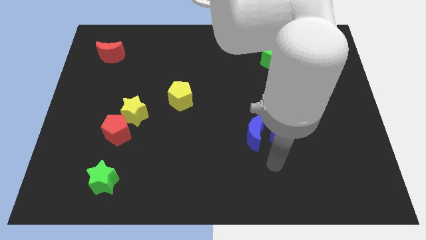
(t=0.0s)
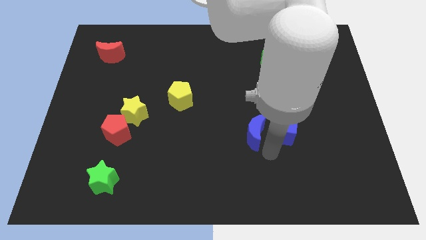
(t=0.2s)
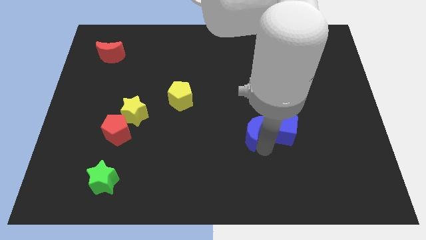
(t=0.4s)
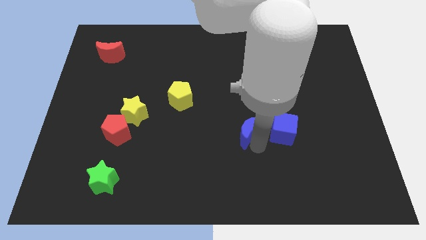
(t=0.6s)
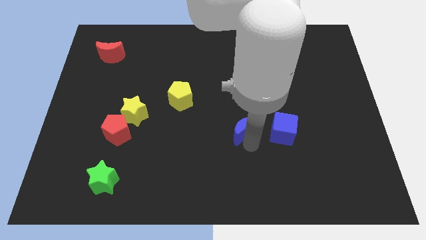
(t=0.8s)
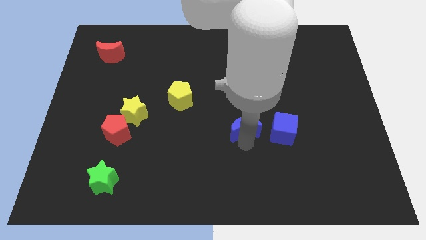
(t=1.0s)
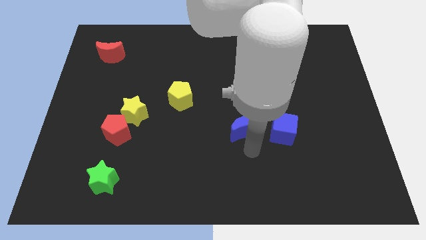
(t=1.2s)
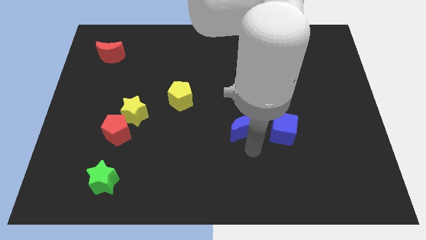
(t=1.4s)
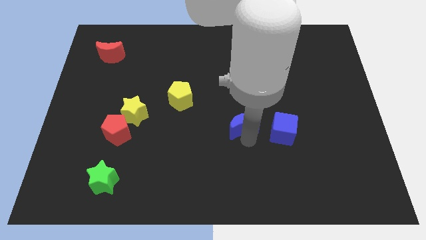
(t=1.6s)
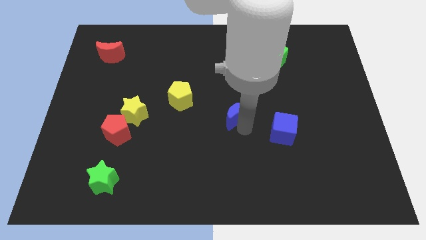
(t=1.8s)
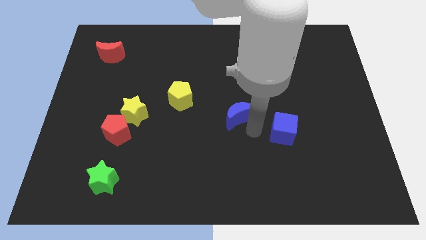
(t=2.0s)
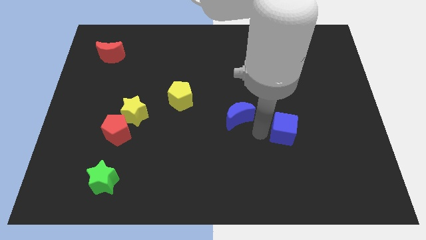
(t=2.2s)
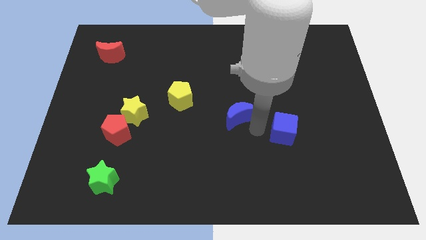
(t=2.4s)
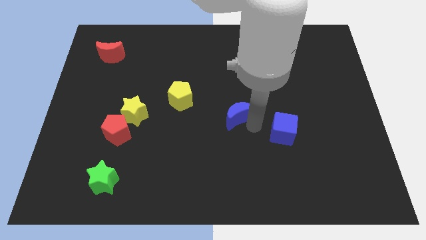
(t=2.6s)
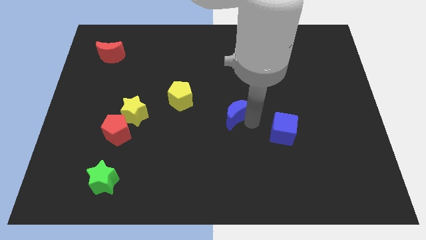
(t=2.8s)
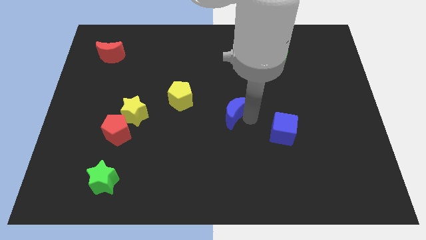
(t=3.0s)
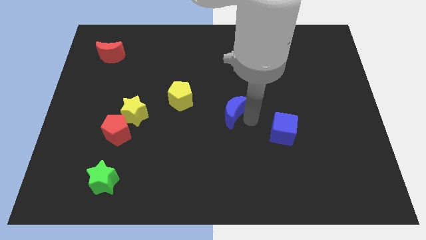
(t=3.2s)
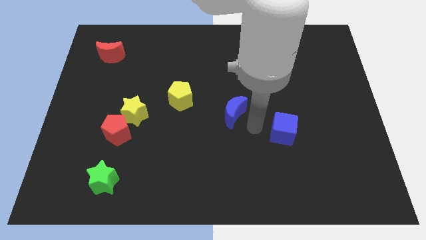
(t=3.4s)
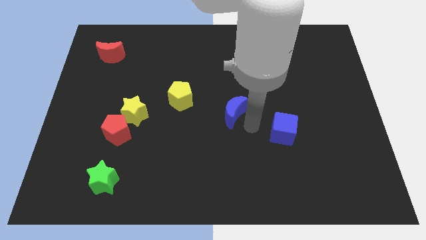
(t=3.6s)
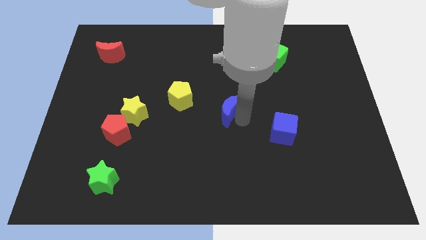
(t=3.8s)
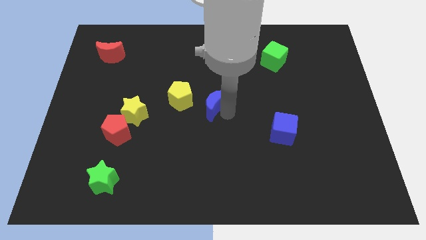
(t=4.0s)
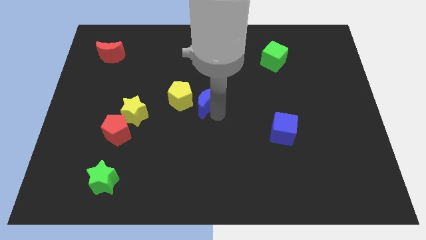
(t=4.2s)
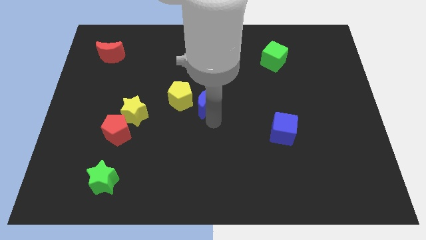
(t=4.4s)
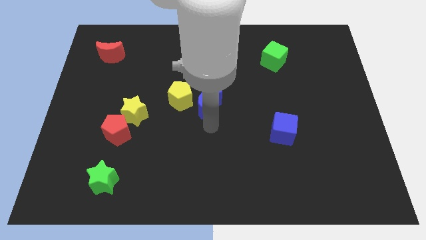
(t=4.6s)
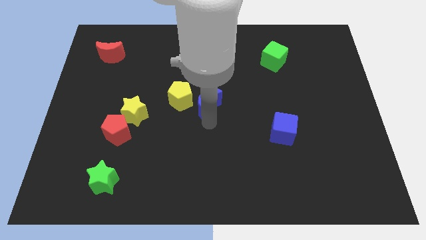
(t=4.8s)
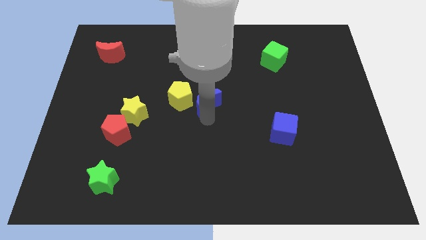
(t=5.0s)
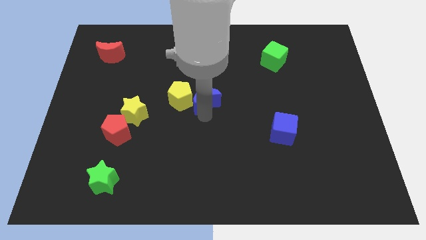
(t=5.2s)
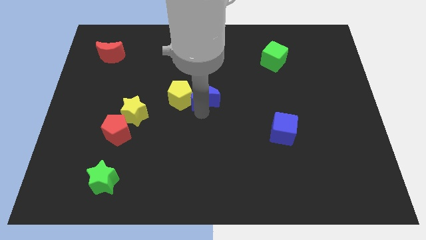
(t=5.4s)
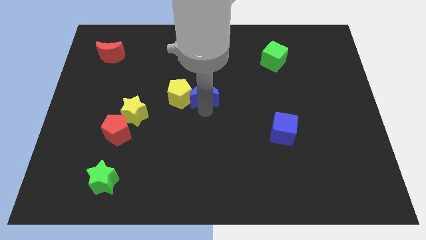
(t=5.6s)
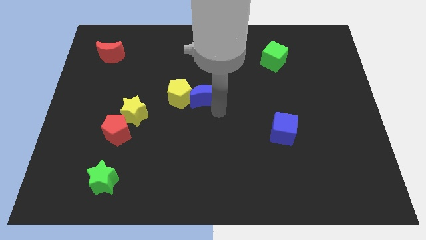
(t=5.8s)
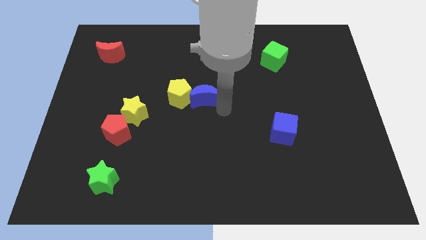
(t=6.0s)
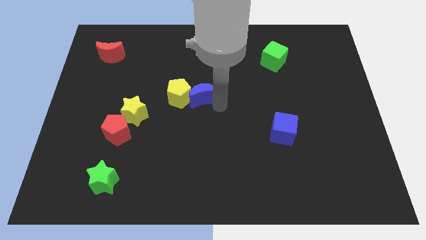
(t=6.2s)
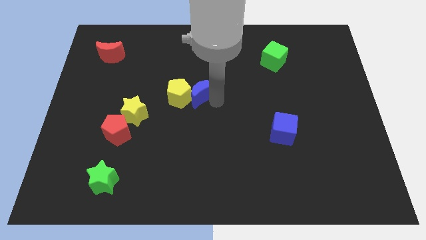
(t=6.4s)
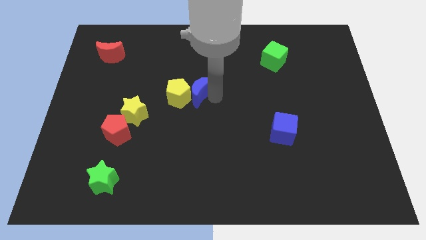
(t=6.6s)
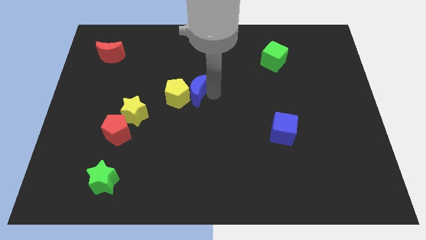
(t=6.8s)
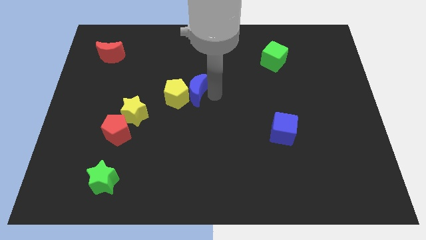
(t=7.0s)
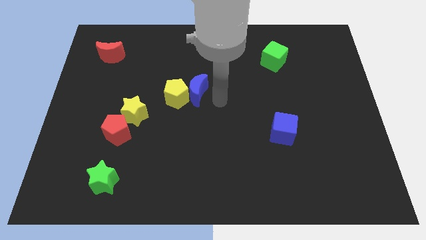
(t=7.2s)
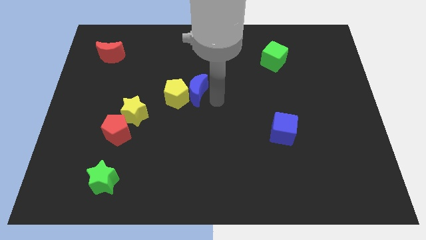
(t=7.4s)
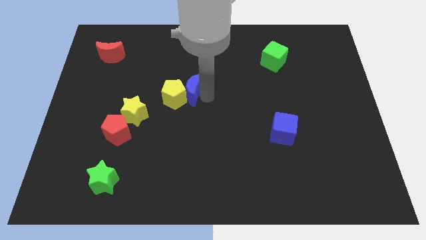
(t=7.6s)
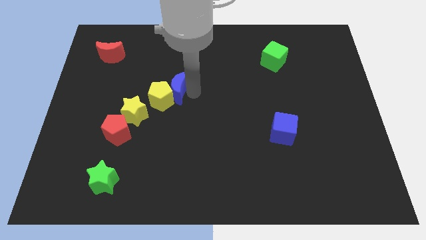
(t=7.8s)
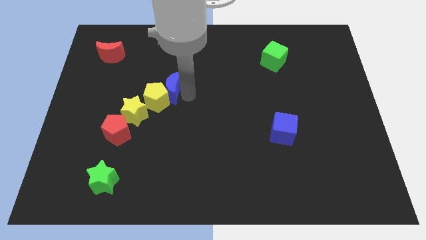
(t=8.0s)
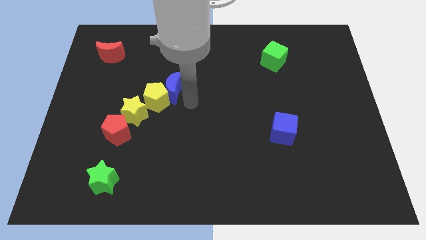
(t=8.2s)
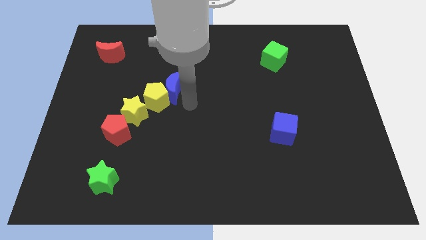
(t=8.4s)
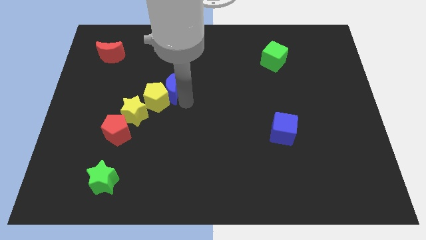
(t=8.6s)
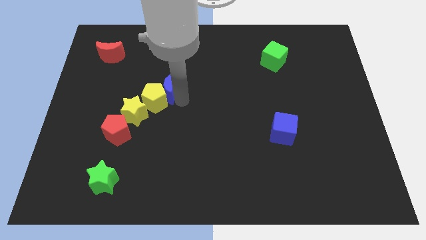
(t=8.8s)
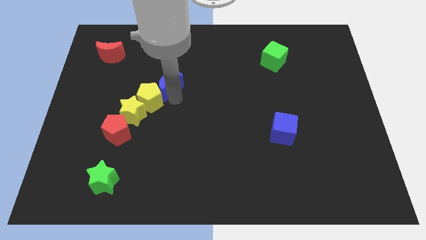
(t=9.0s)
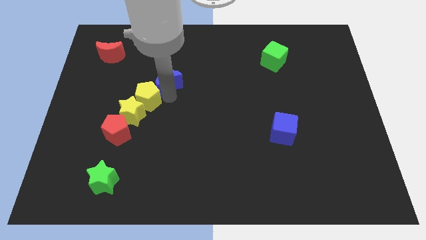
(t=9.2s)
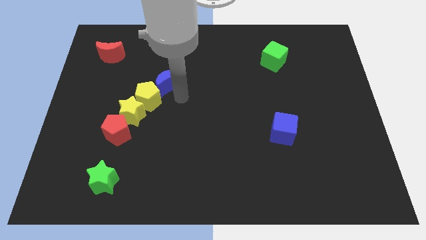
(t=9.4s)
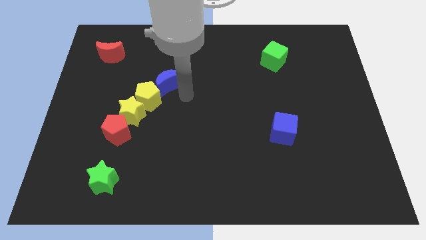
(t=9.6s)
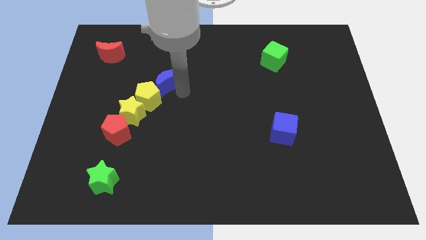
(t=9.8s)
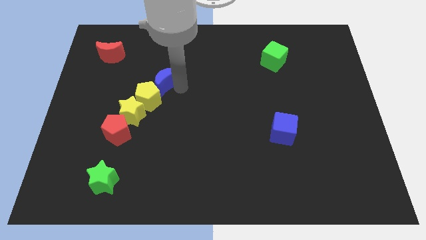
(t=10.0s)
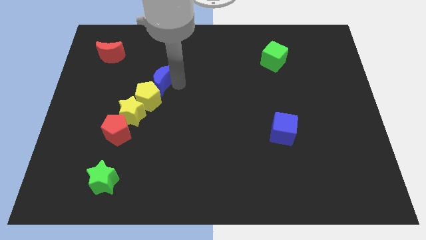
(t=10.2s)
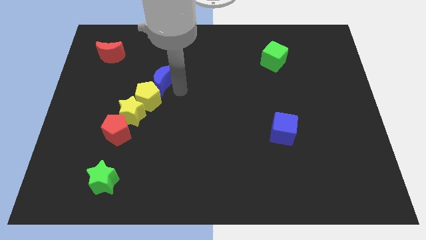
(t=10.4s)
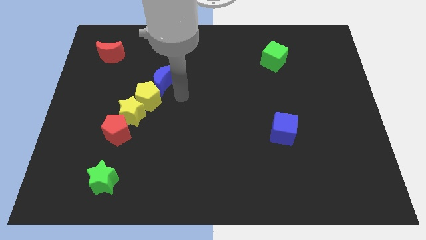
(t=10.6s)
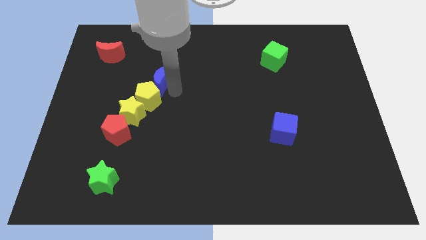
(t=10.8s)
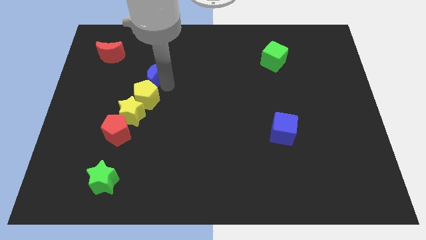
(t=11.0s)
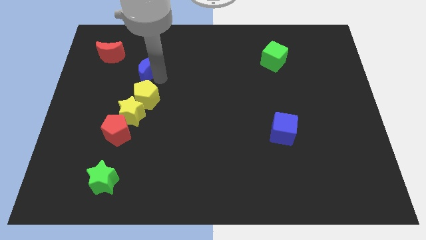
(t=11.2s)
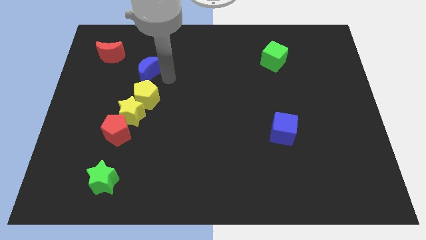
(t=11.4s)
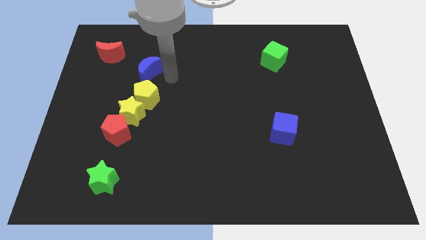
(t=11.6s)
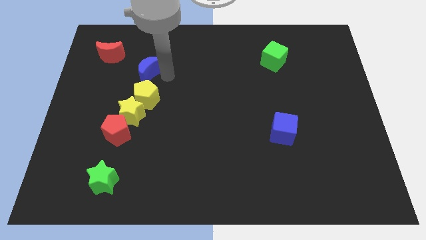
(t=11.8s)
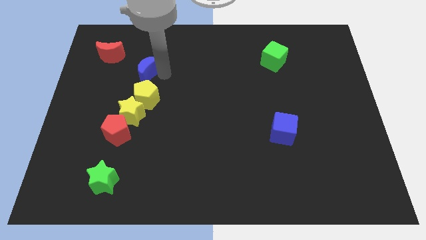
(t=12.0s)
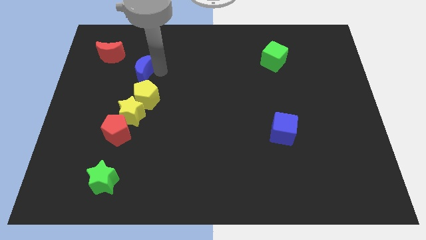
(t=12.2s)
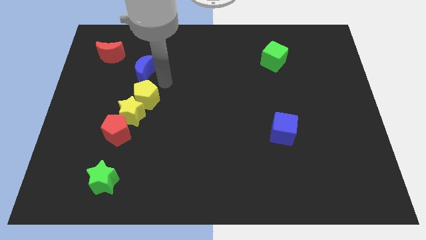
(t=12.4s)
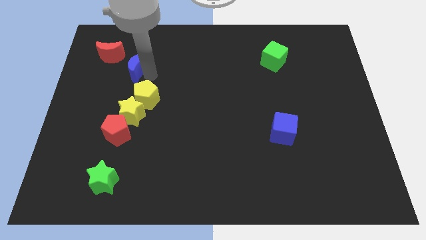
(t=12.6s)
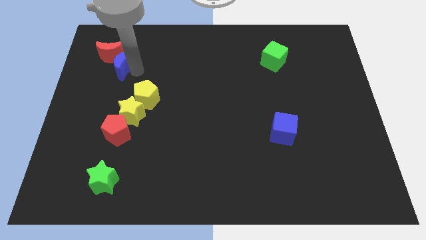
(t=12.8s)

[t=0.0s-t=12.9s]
push the blue moon next to the red moon

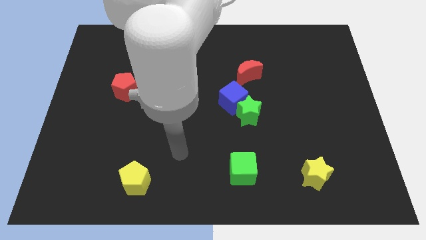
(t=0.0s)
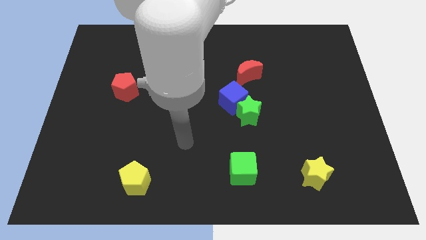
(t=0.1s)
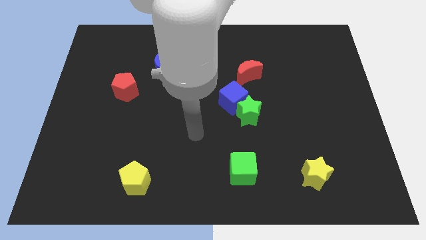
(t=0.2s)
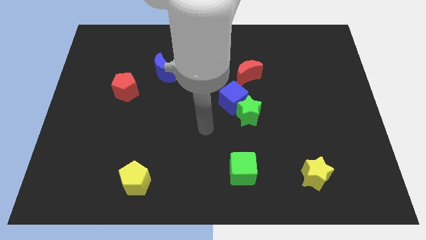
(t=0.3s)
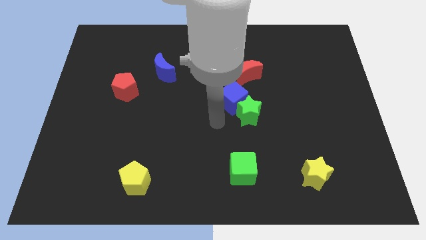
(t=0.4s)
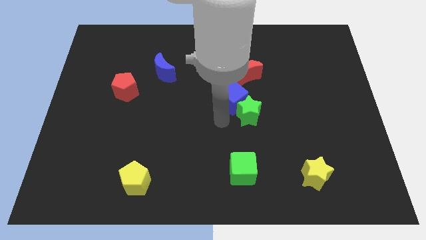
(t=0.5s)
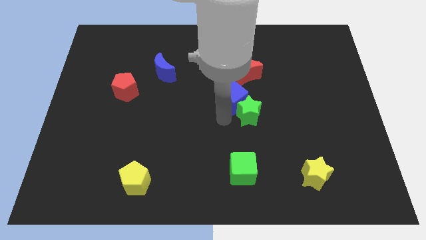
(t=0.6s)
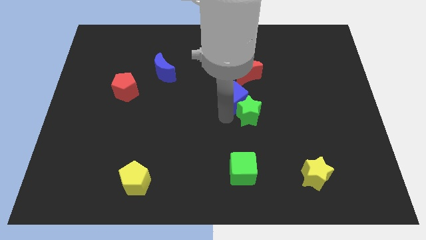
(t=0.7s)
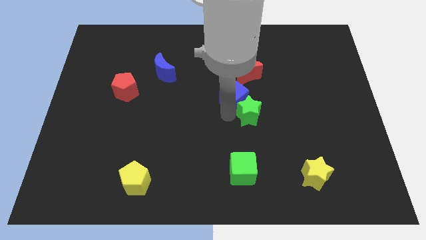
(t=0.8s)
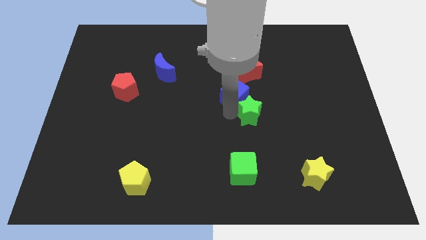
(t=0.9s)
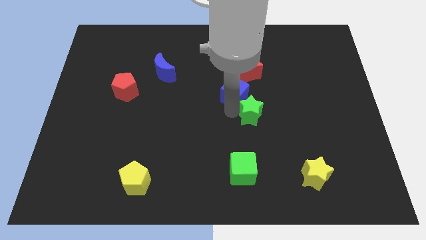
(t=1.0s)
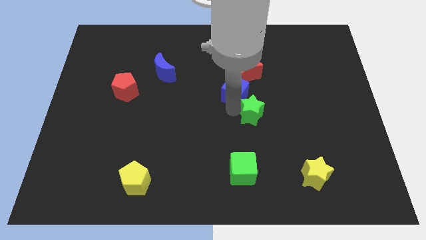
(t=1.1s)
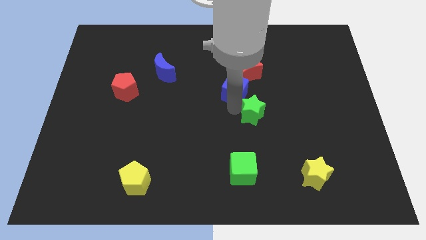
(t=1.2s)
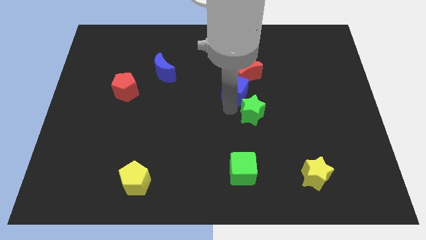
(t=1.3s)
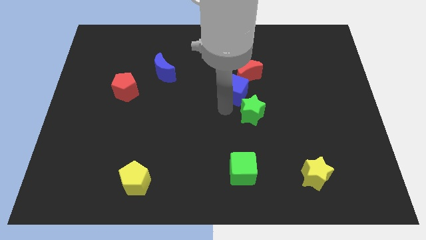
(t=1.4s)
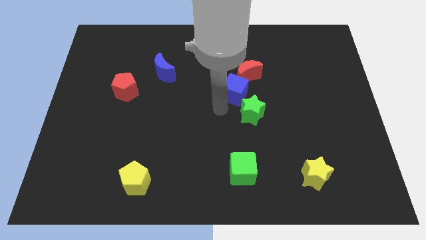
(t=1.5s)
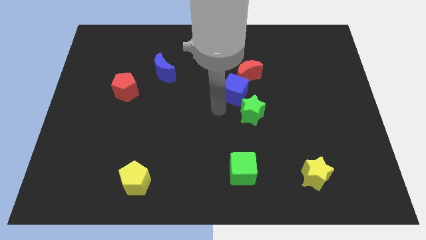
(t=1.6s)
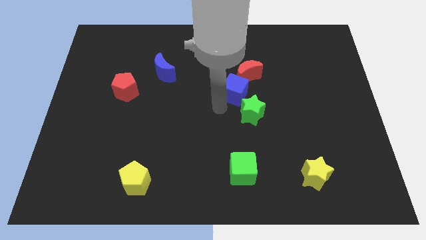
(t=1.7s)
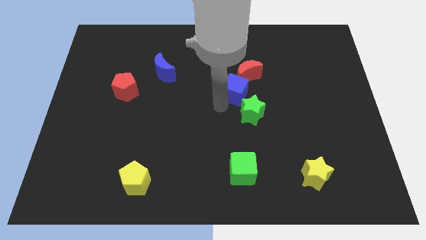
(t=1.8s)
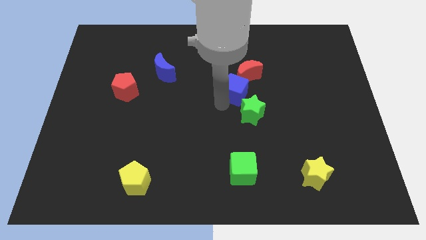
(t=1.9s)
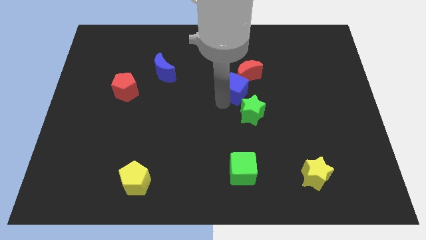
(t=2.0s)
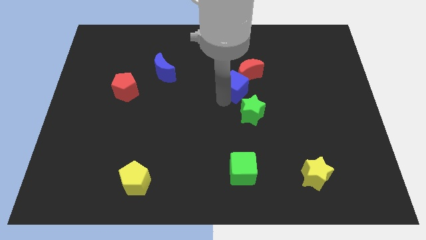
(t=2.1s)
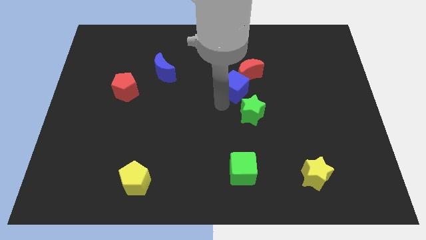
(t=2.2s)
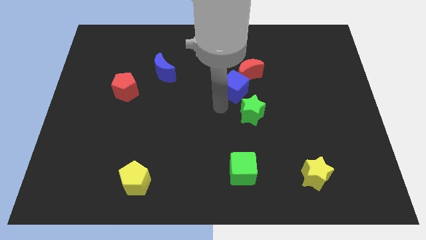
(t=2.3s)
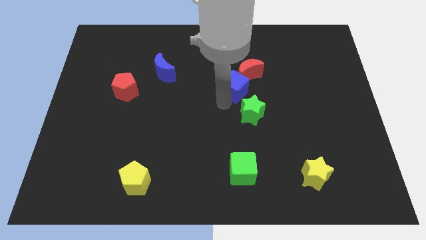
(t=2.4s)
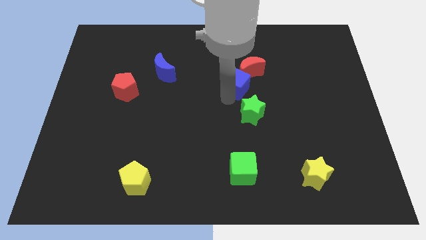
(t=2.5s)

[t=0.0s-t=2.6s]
put the blue cube towards the red moon
